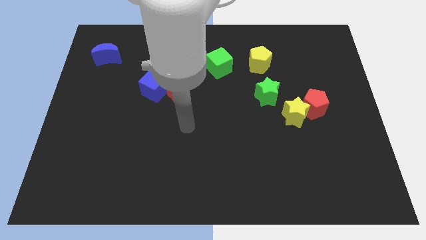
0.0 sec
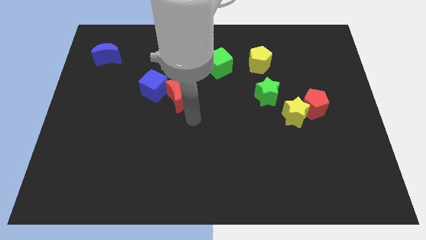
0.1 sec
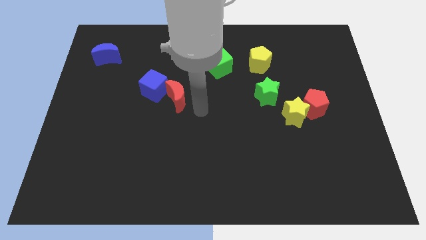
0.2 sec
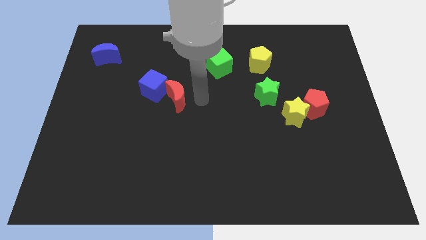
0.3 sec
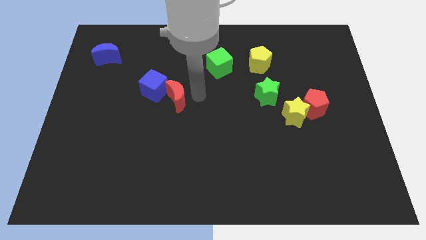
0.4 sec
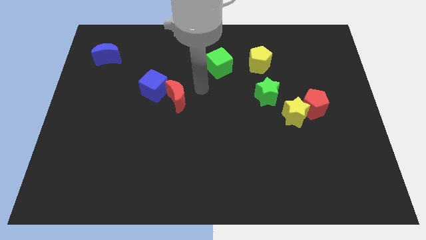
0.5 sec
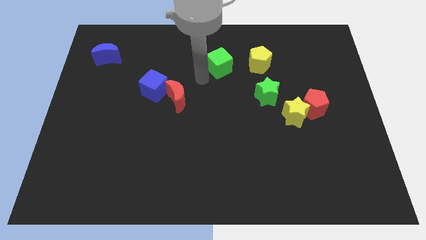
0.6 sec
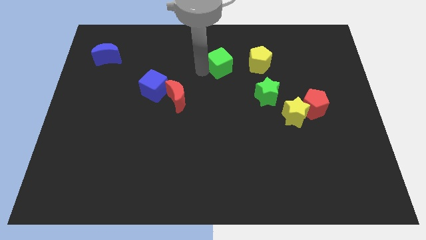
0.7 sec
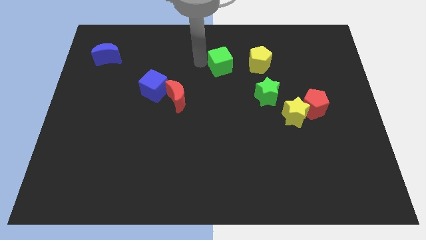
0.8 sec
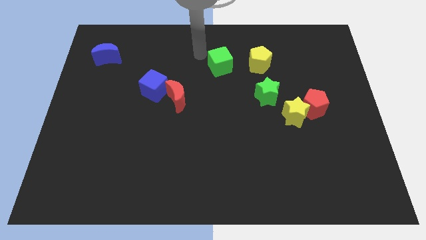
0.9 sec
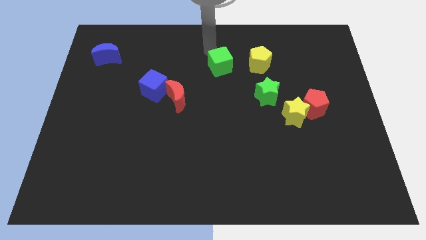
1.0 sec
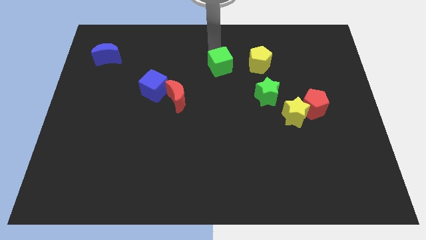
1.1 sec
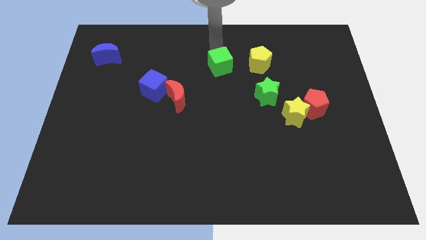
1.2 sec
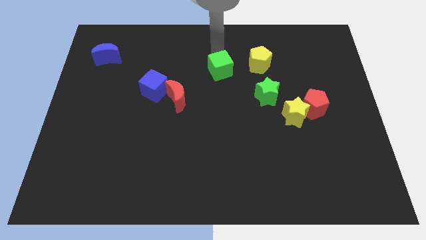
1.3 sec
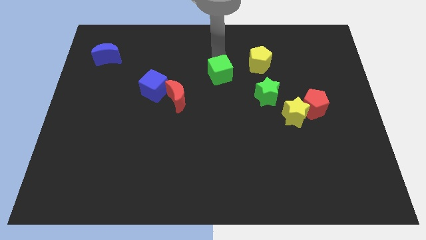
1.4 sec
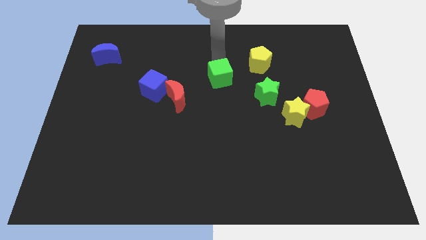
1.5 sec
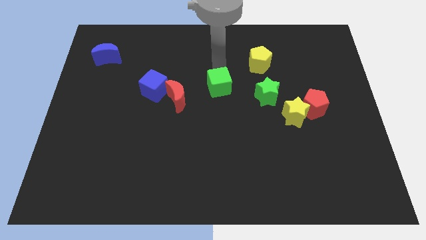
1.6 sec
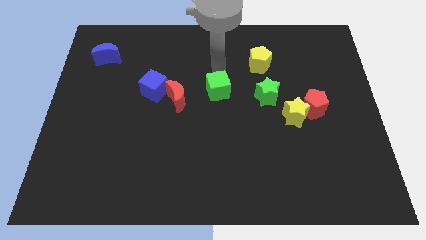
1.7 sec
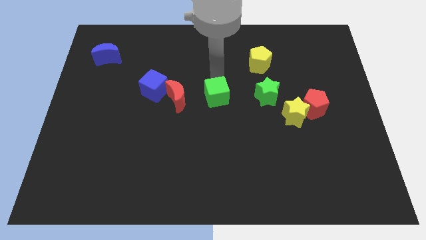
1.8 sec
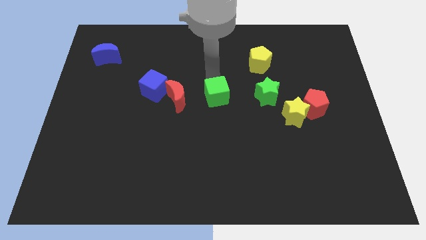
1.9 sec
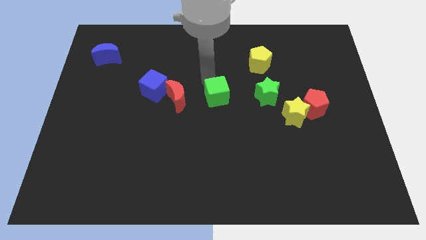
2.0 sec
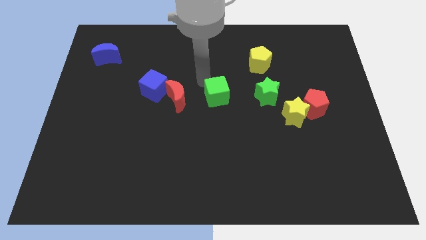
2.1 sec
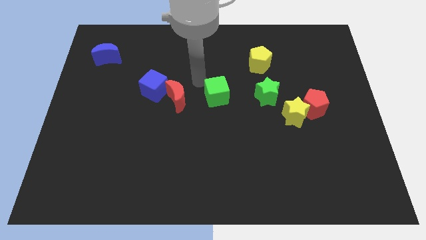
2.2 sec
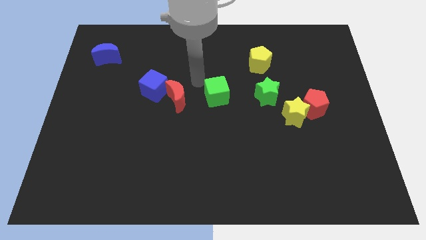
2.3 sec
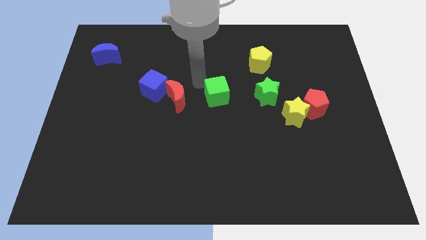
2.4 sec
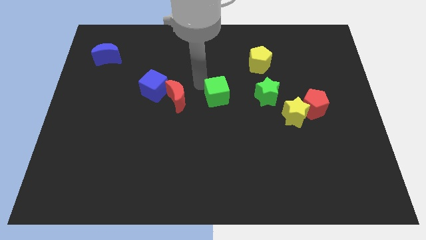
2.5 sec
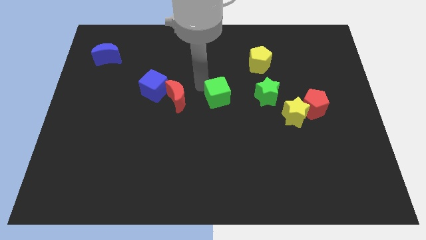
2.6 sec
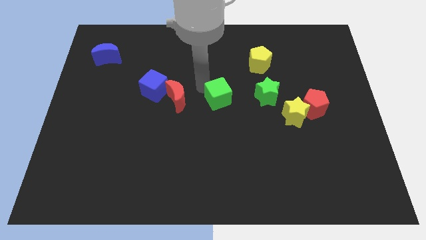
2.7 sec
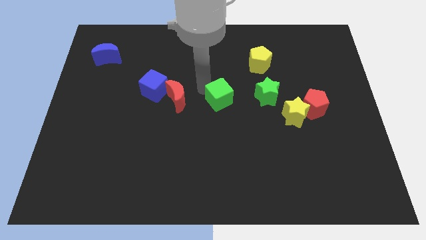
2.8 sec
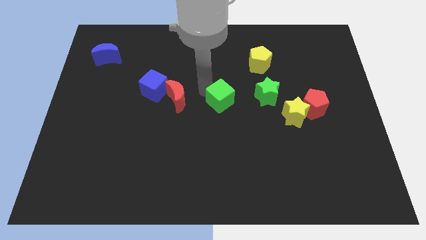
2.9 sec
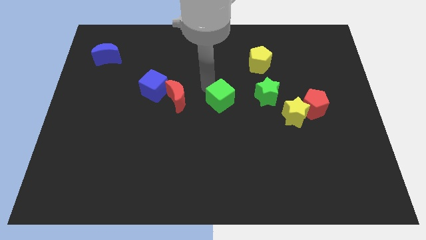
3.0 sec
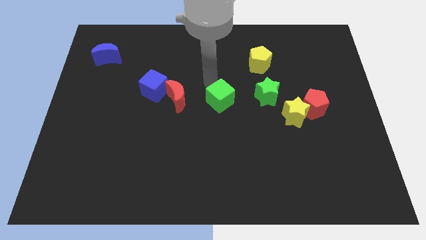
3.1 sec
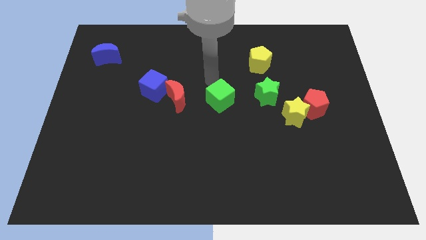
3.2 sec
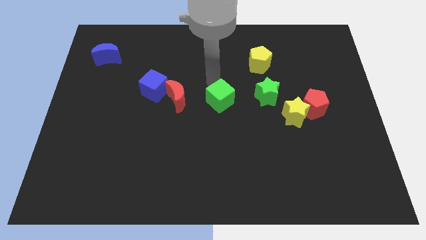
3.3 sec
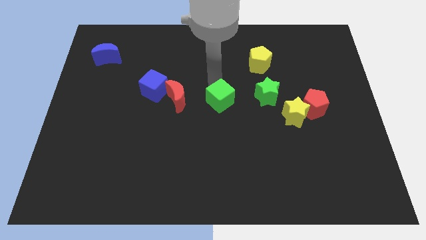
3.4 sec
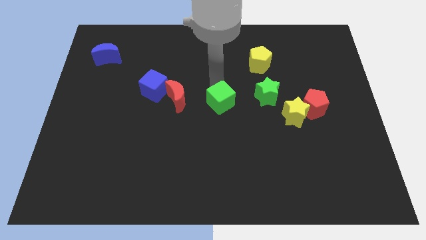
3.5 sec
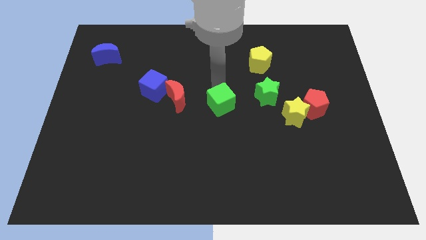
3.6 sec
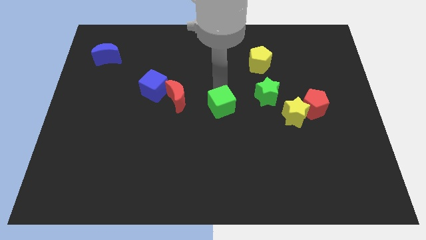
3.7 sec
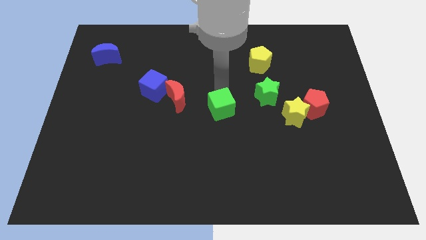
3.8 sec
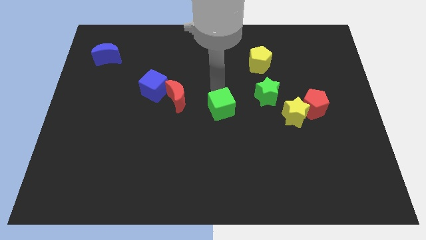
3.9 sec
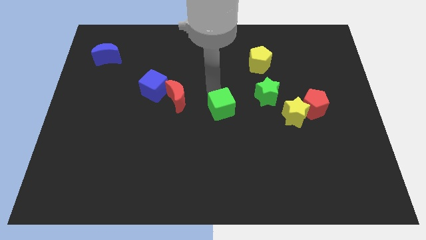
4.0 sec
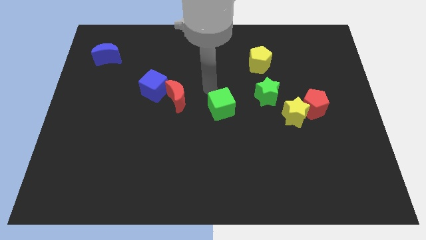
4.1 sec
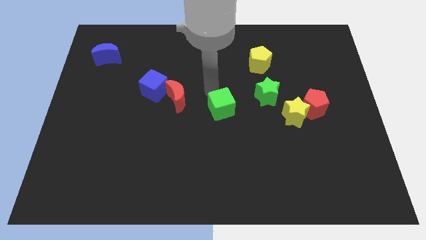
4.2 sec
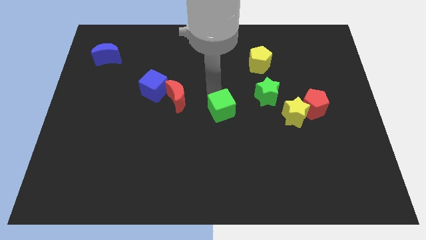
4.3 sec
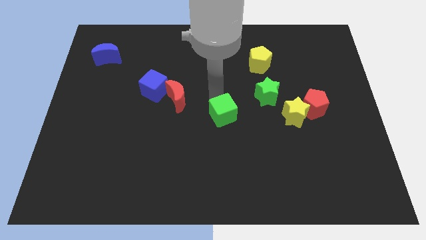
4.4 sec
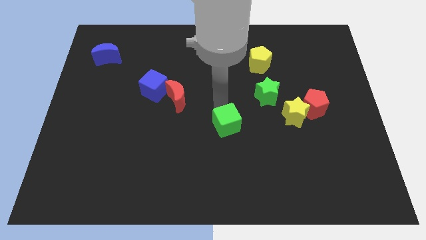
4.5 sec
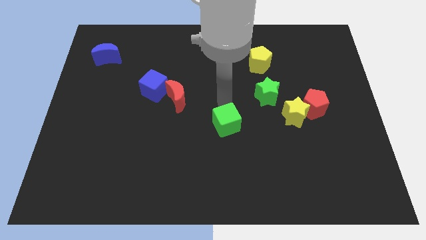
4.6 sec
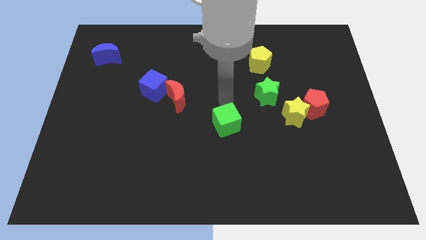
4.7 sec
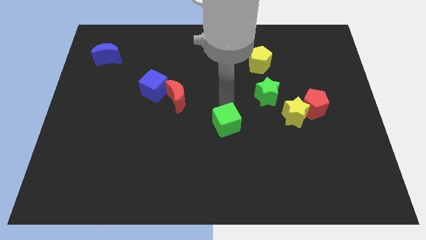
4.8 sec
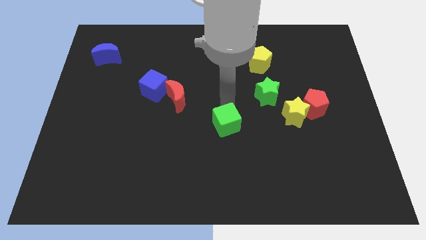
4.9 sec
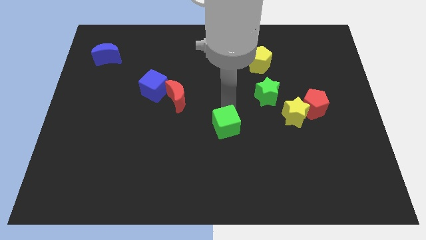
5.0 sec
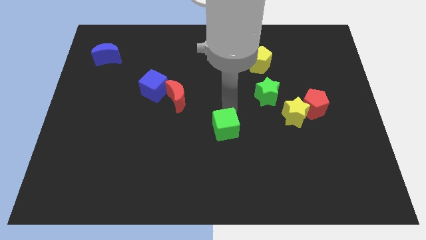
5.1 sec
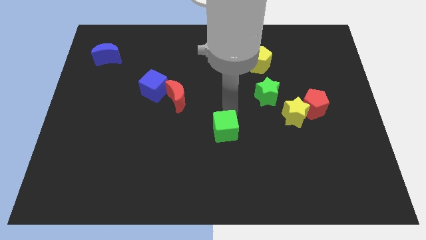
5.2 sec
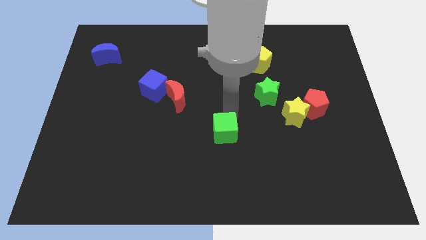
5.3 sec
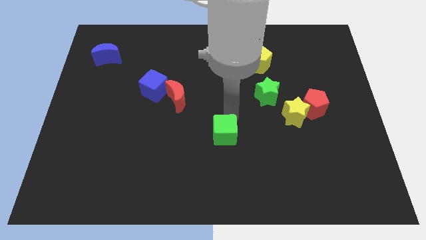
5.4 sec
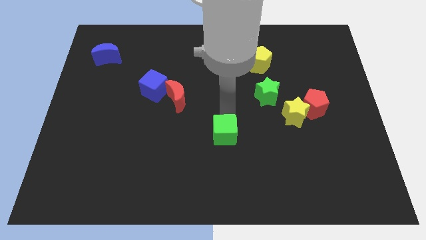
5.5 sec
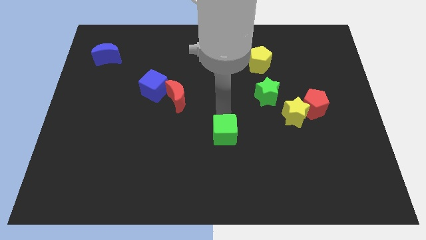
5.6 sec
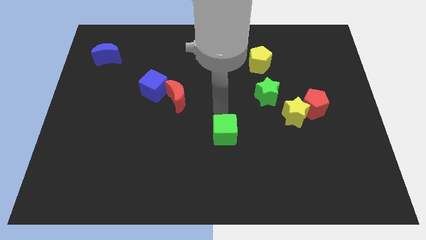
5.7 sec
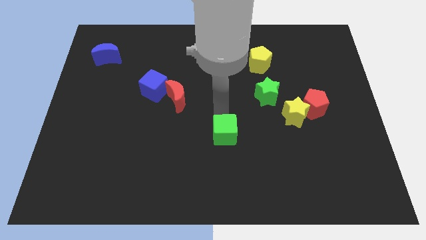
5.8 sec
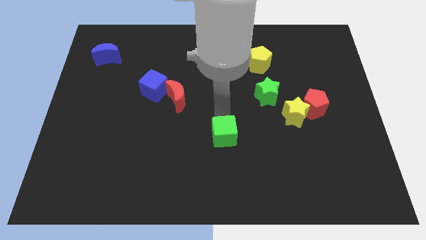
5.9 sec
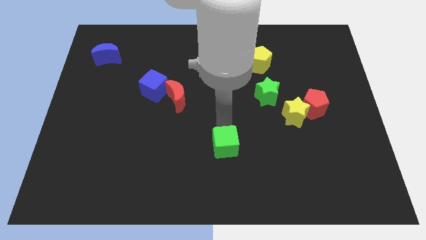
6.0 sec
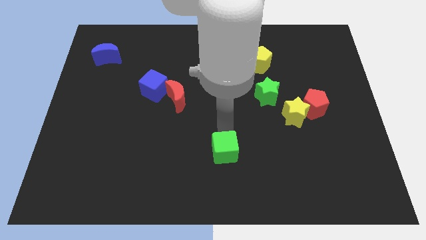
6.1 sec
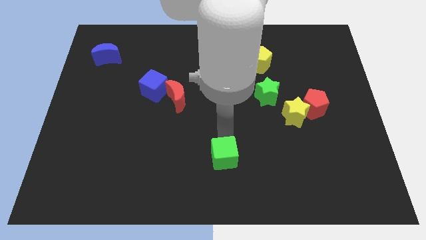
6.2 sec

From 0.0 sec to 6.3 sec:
move the green cube to the bottom

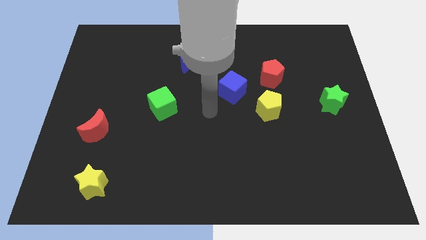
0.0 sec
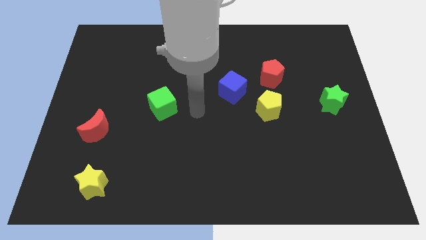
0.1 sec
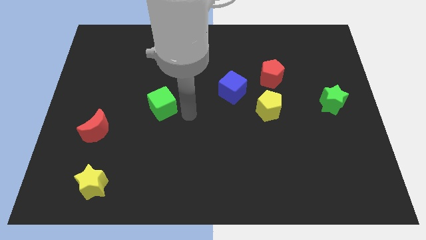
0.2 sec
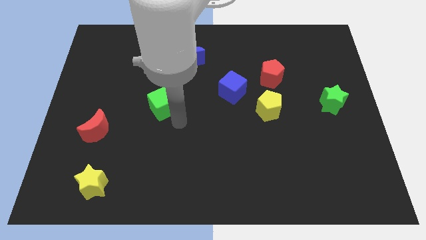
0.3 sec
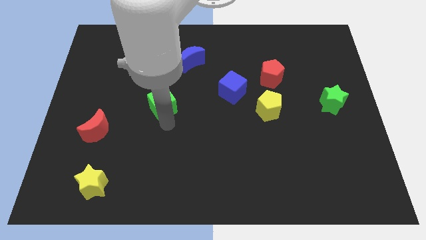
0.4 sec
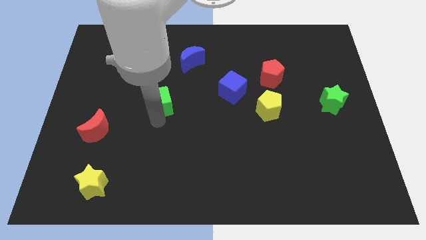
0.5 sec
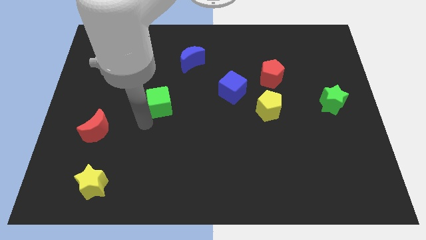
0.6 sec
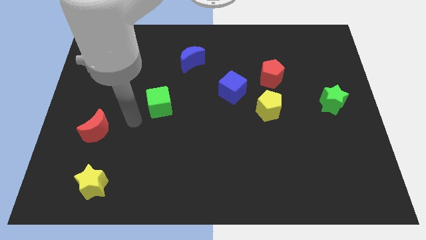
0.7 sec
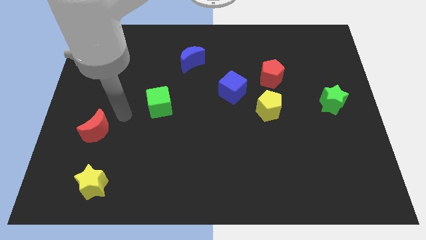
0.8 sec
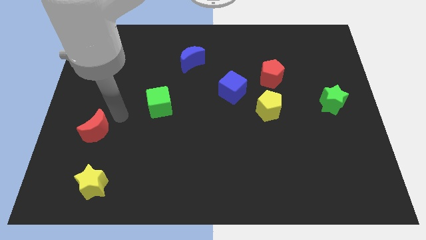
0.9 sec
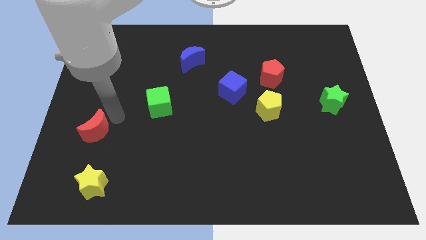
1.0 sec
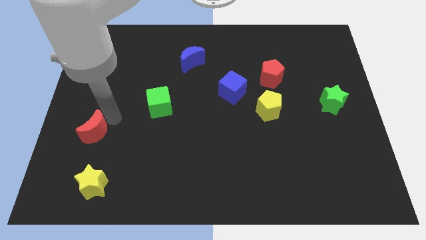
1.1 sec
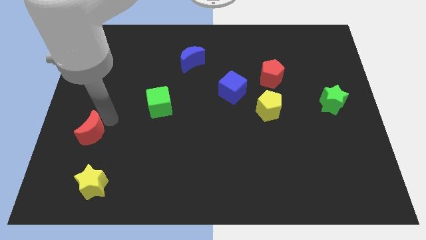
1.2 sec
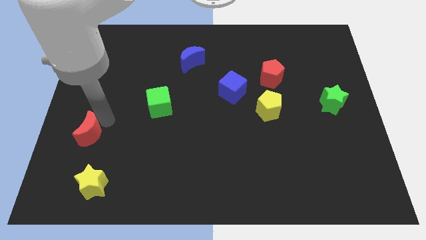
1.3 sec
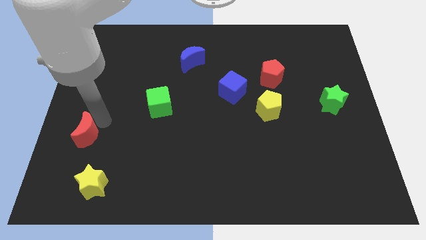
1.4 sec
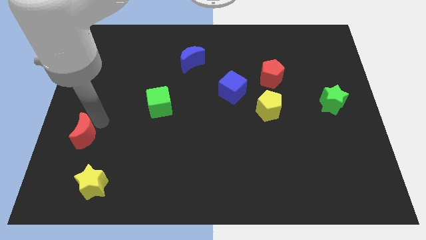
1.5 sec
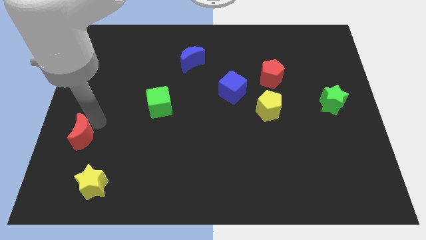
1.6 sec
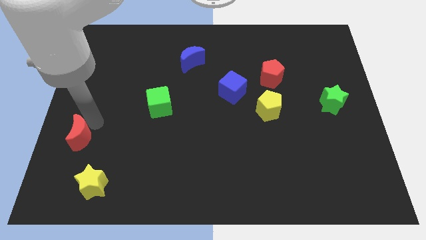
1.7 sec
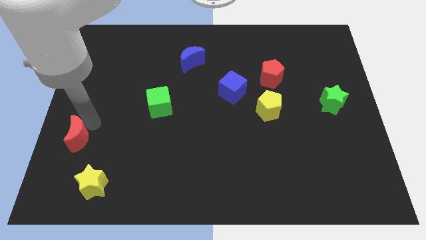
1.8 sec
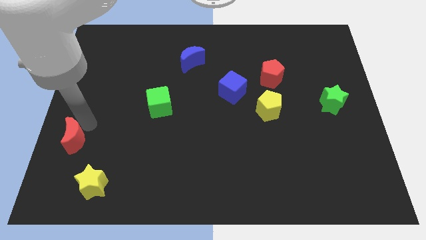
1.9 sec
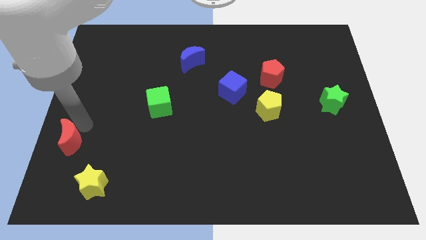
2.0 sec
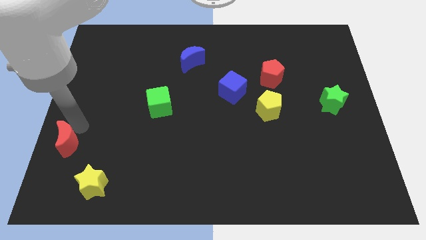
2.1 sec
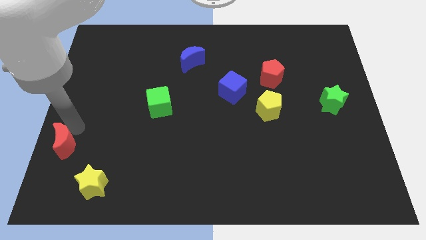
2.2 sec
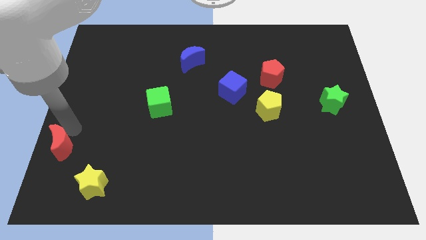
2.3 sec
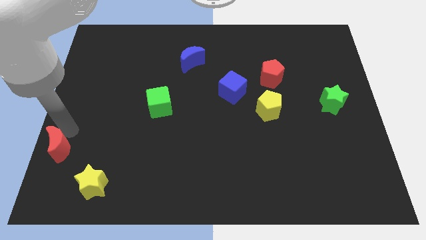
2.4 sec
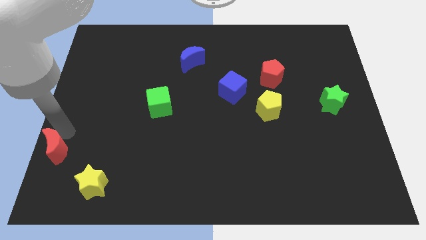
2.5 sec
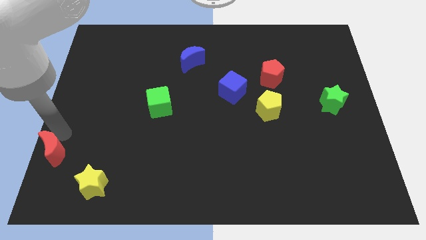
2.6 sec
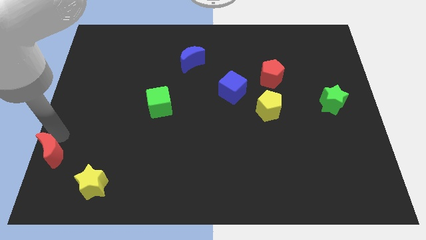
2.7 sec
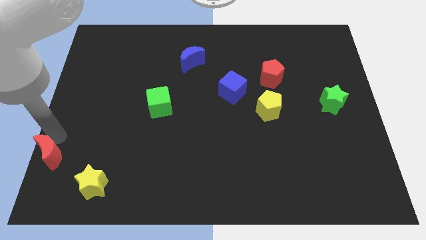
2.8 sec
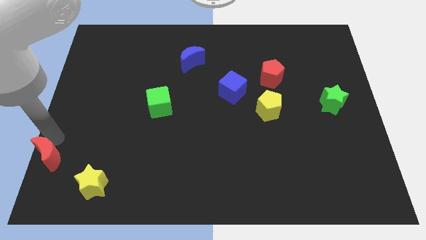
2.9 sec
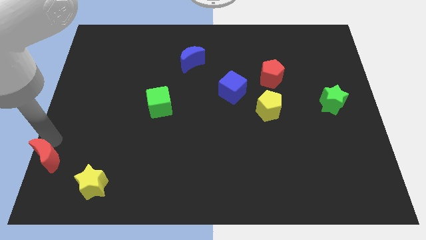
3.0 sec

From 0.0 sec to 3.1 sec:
slide the red moon to the bottom left of the board
